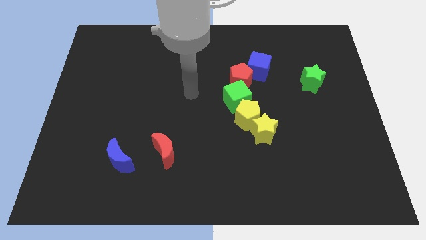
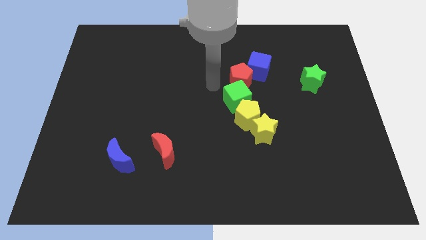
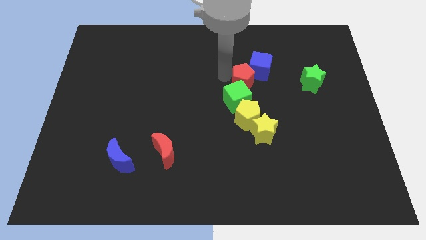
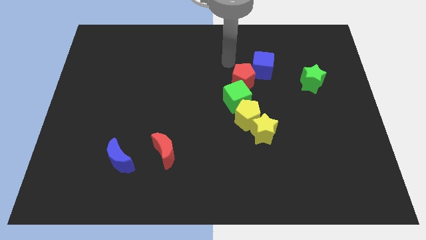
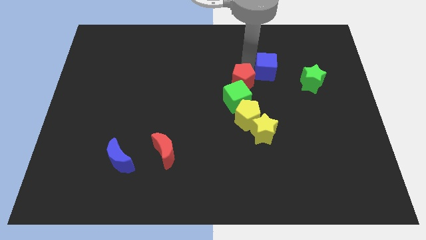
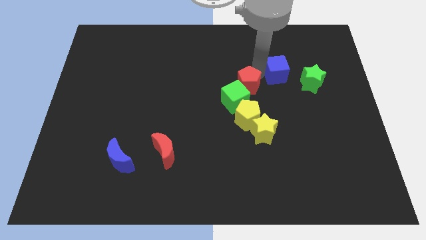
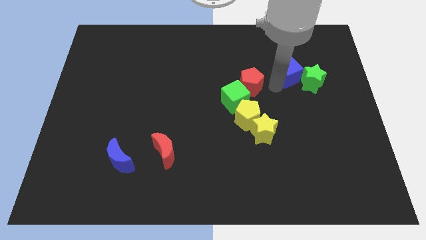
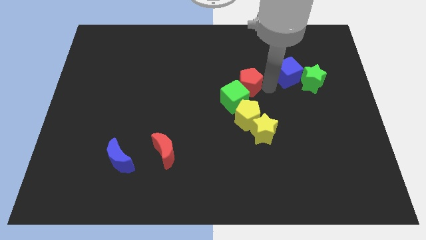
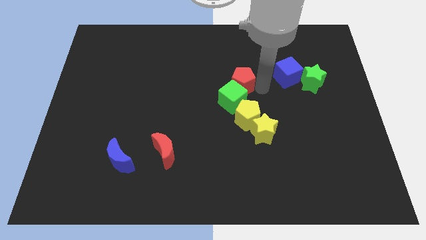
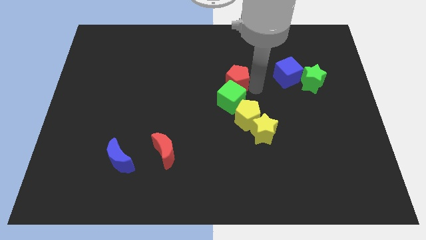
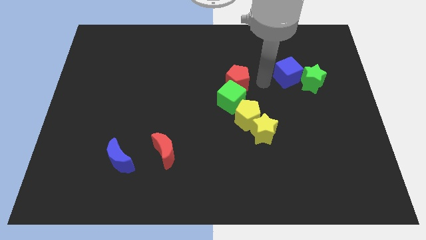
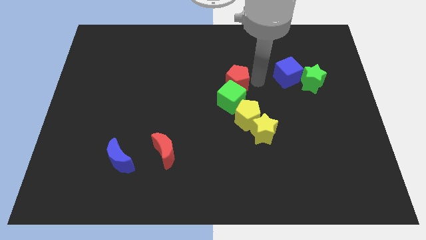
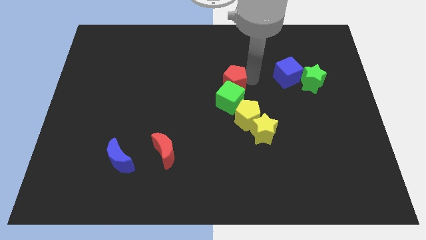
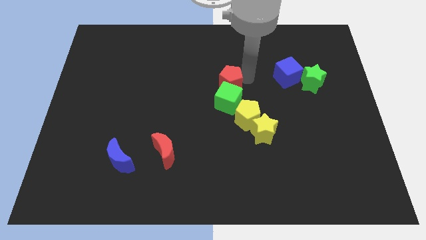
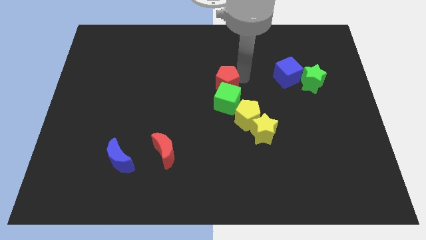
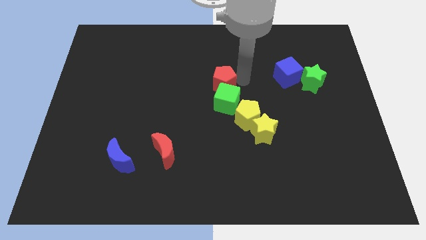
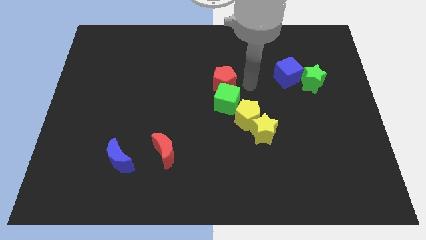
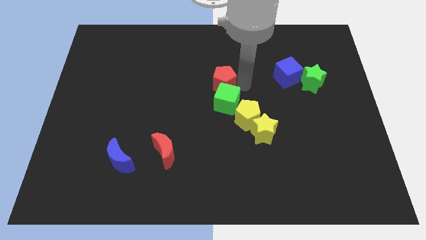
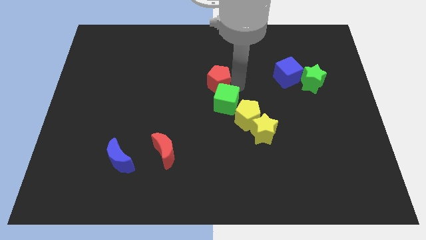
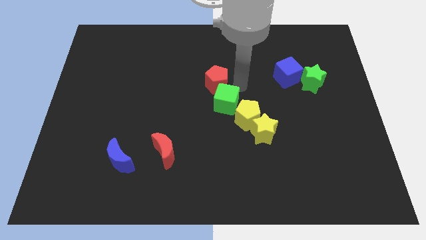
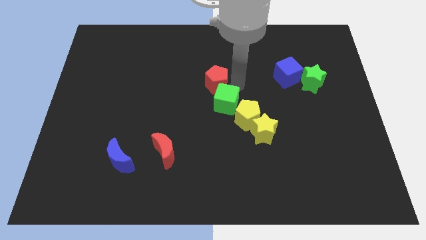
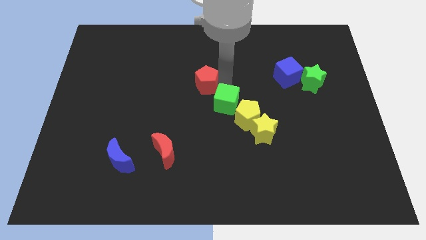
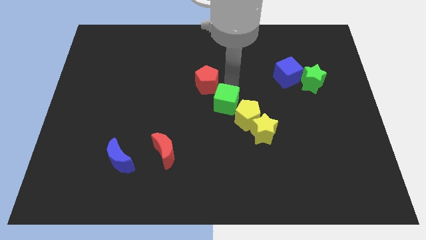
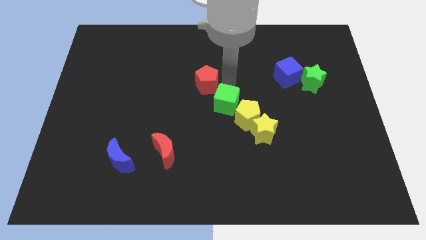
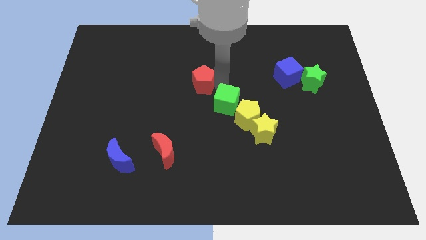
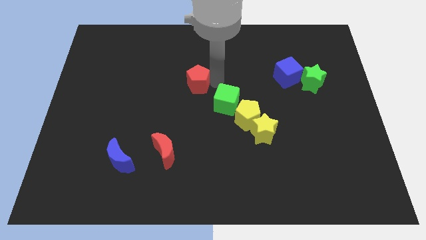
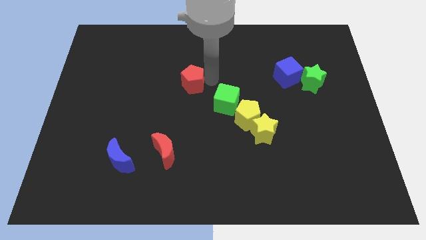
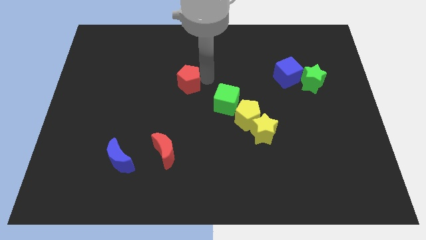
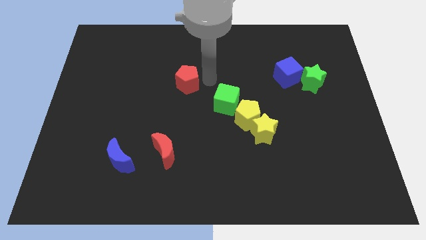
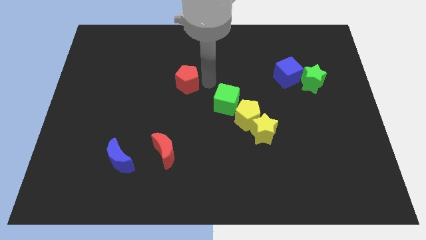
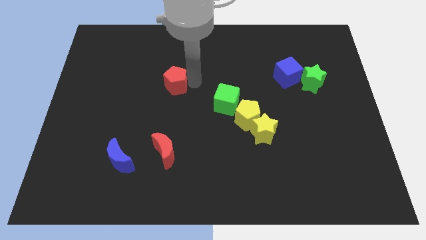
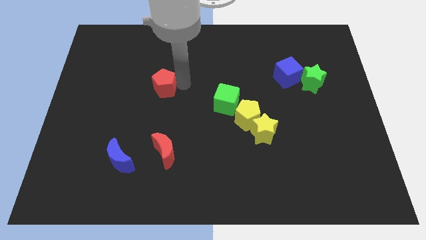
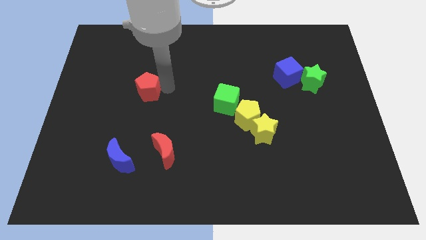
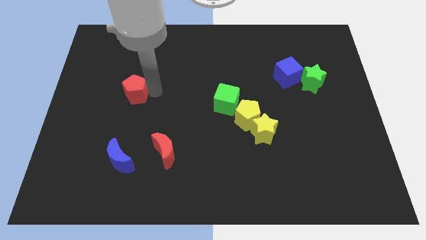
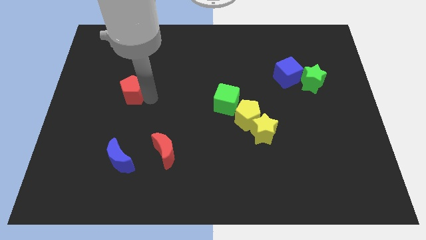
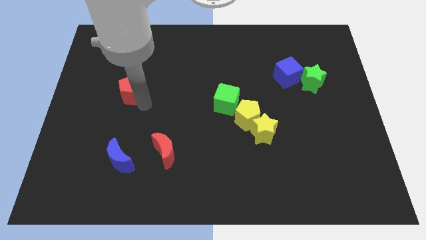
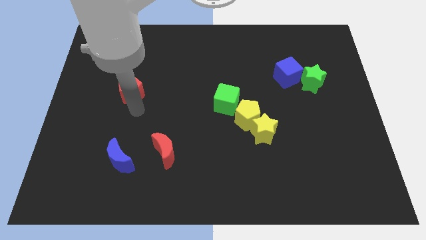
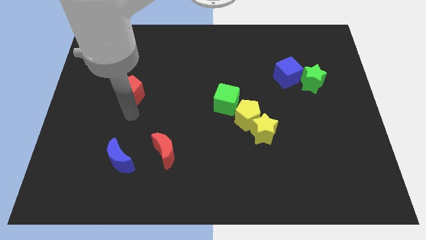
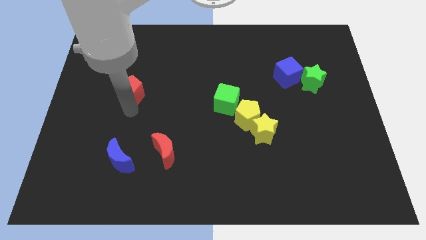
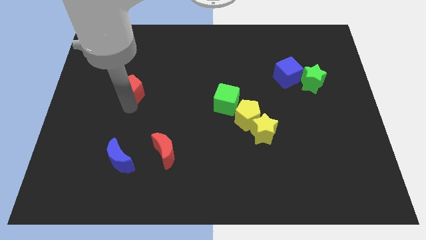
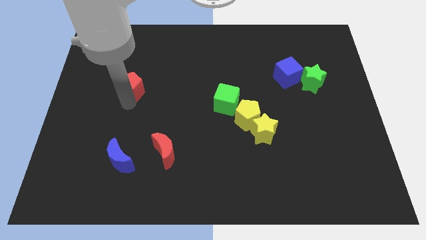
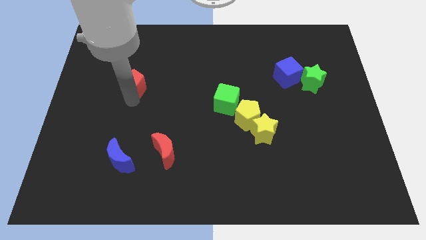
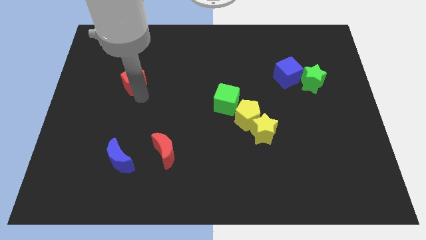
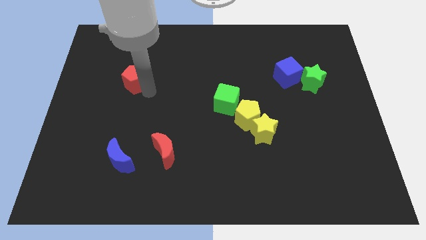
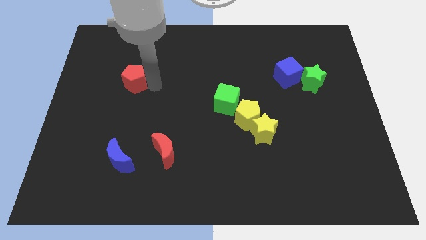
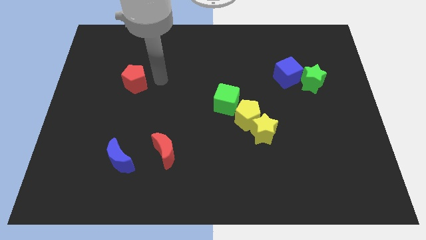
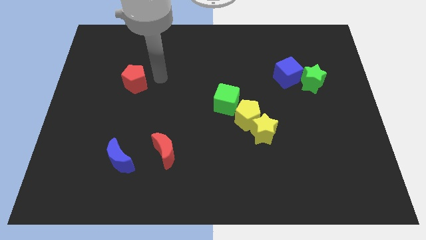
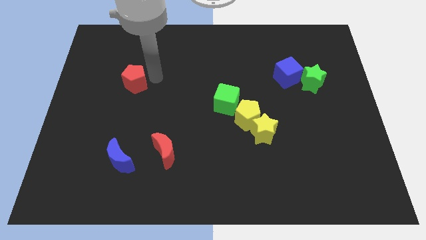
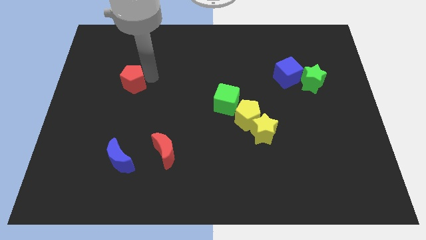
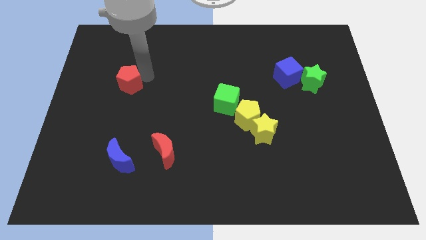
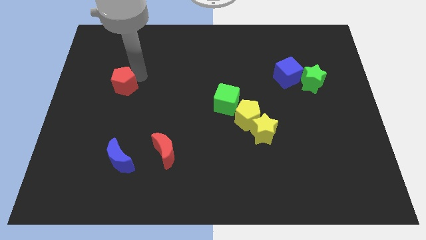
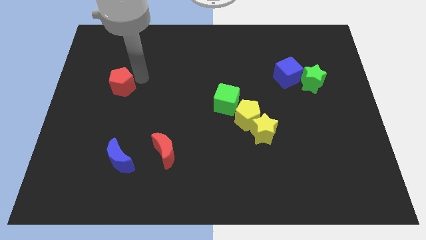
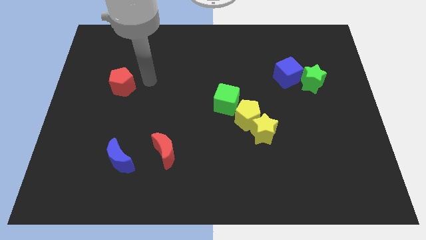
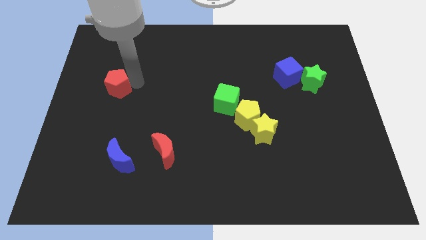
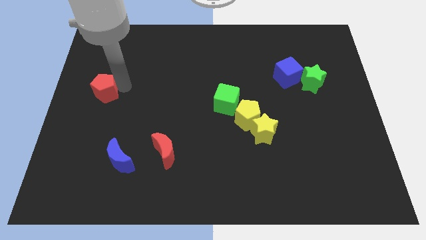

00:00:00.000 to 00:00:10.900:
put the red pentagon to the left side

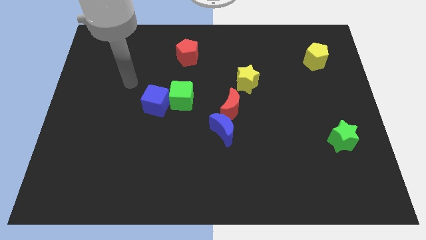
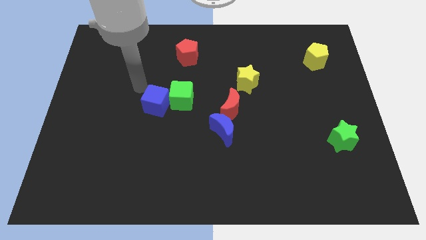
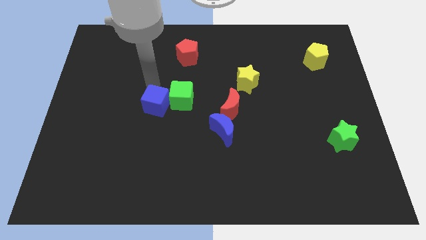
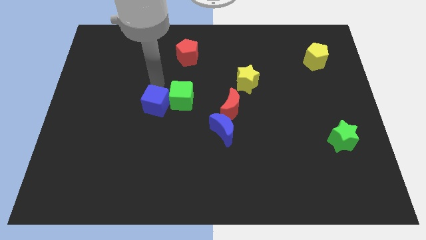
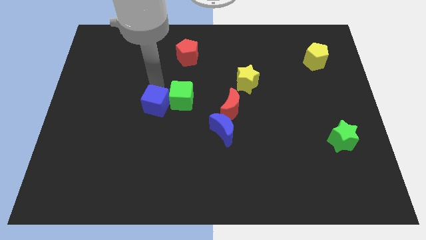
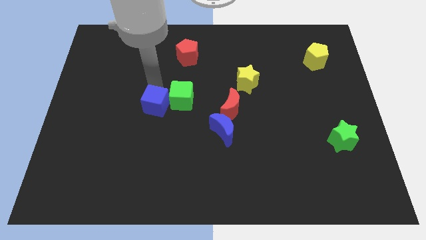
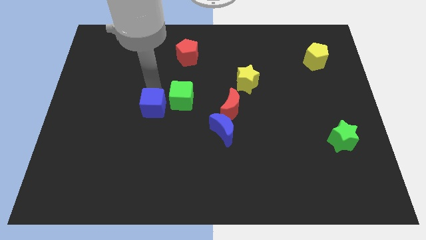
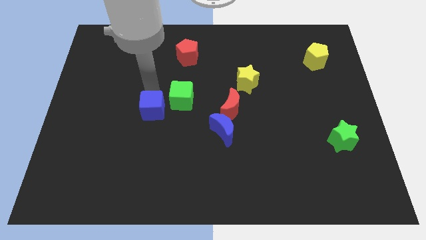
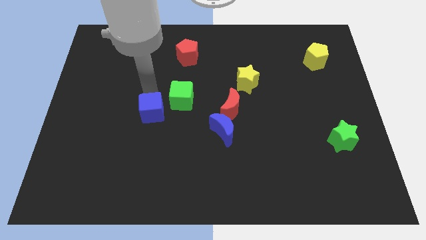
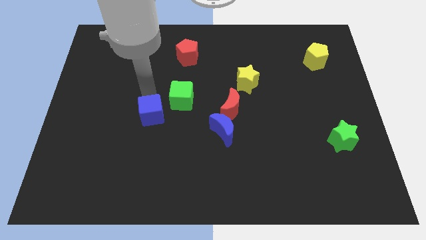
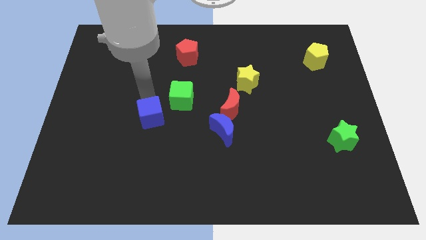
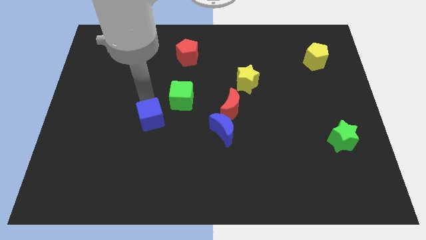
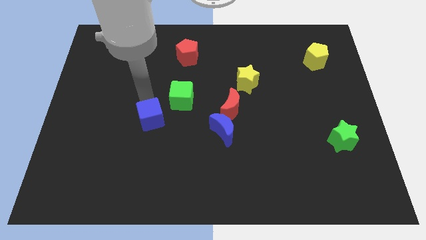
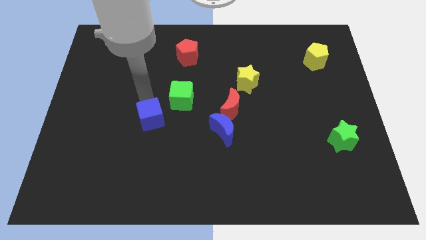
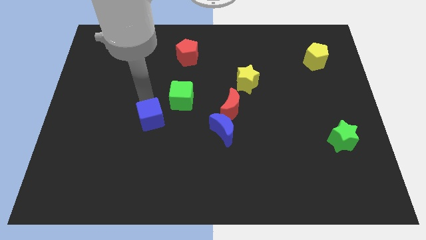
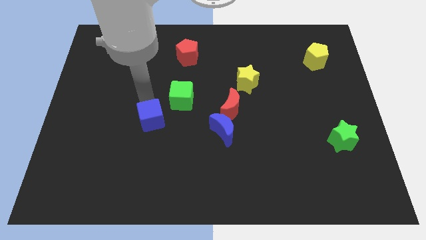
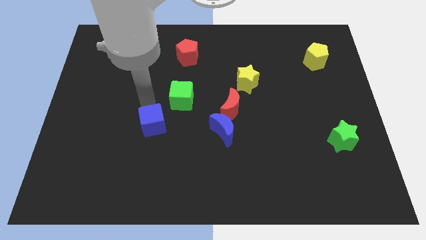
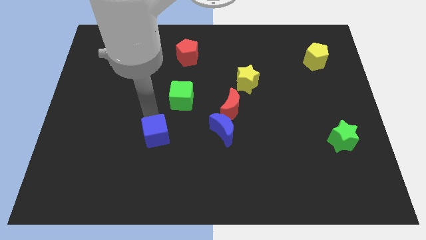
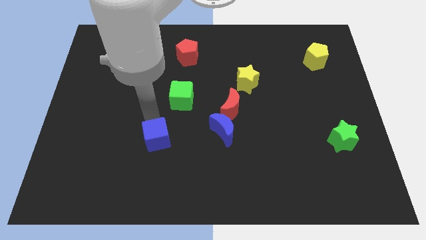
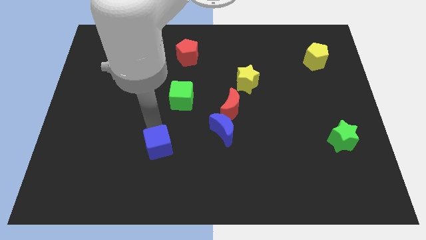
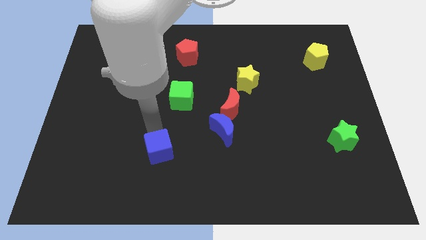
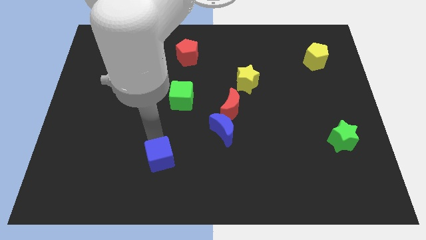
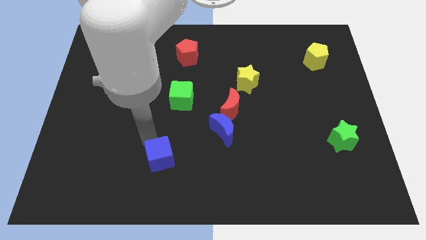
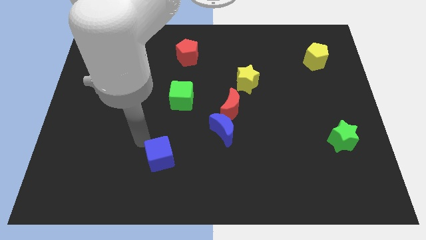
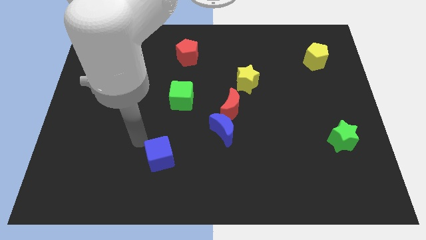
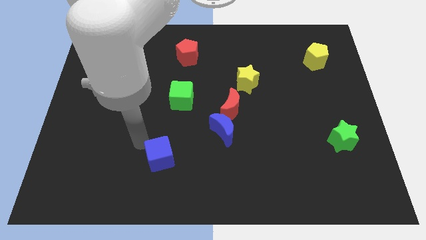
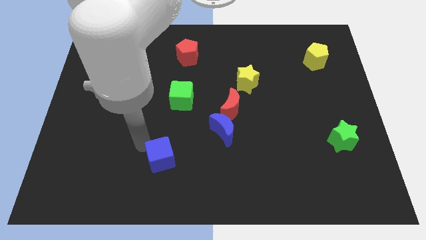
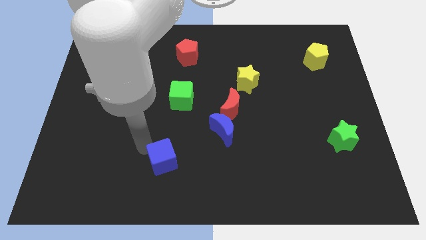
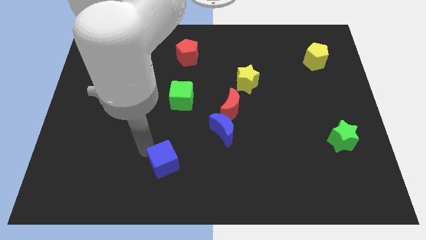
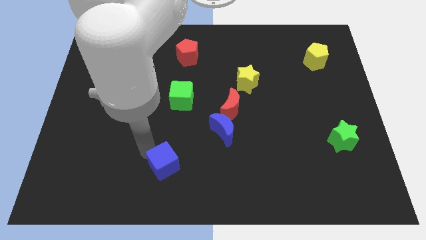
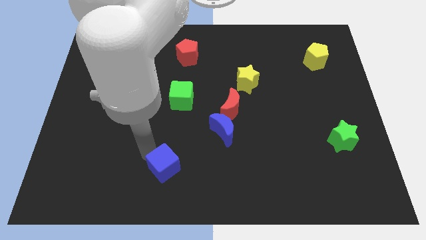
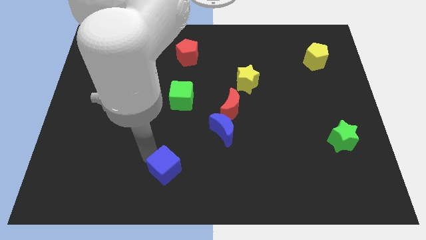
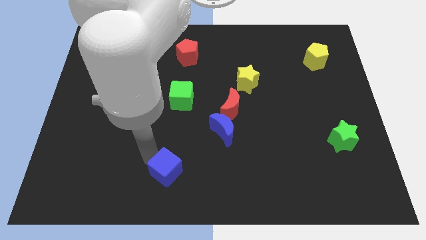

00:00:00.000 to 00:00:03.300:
push the blue cube to the bottom side
